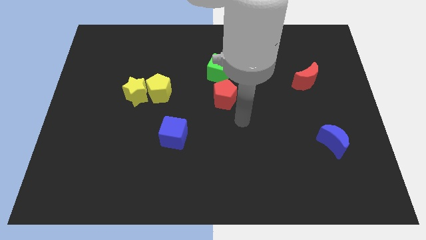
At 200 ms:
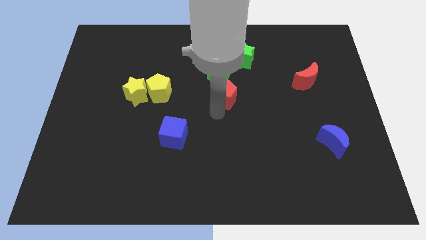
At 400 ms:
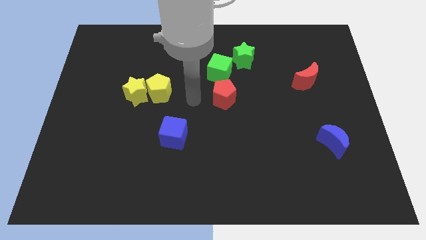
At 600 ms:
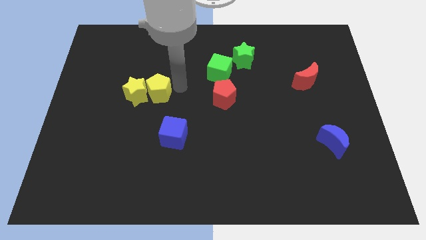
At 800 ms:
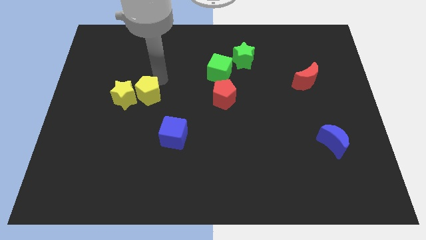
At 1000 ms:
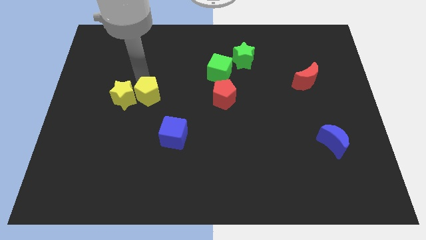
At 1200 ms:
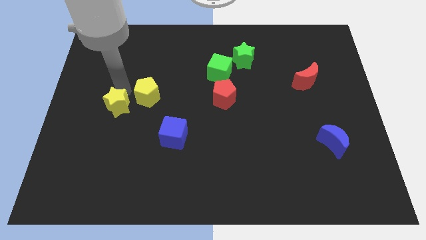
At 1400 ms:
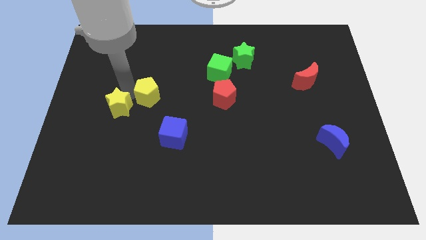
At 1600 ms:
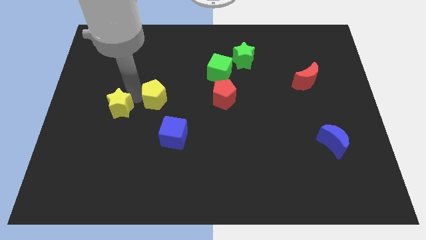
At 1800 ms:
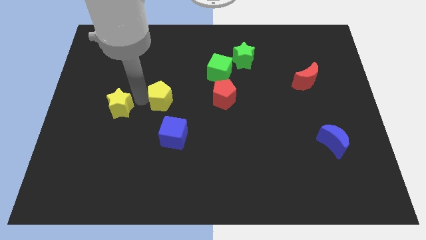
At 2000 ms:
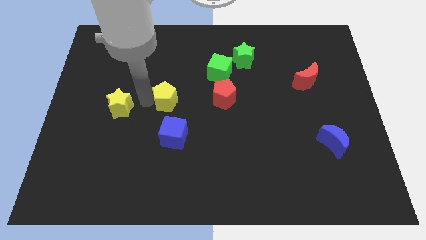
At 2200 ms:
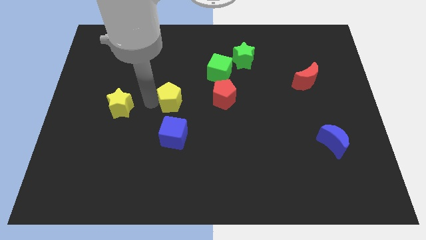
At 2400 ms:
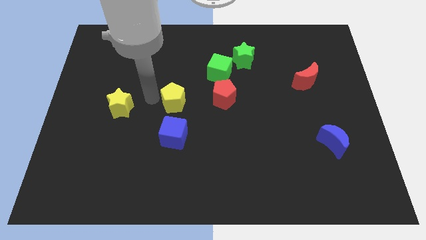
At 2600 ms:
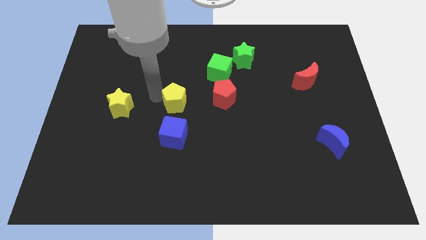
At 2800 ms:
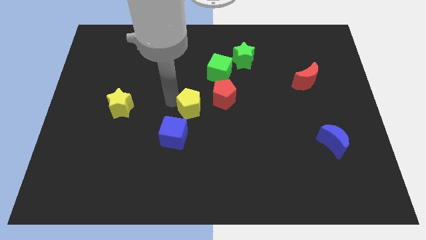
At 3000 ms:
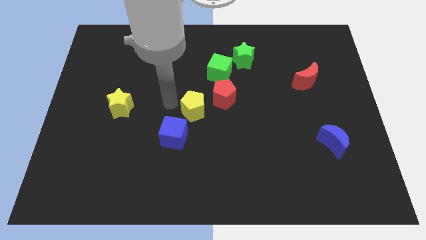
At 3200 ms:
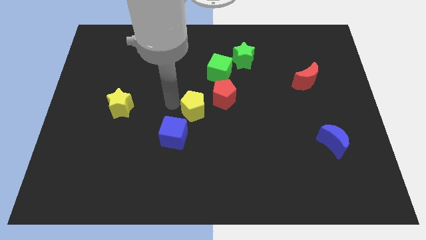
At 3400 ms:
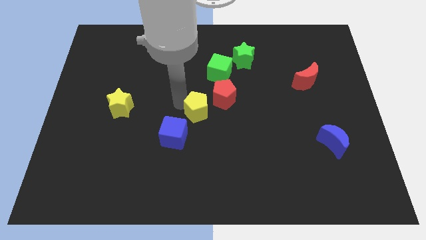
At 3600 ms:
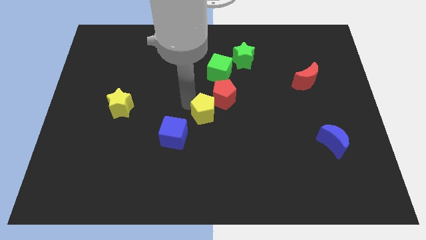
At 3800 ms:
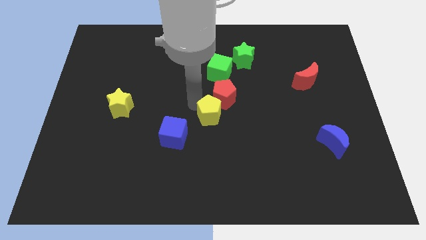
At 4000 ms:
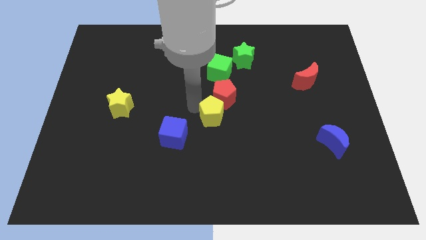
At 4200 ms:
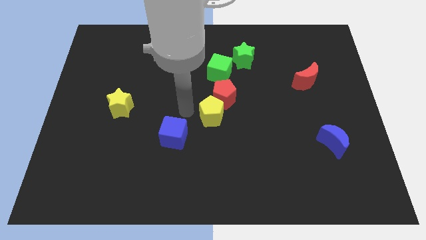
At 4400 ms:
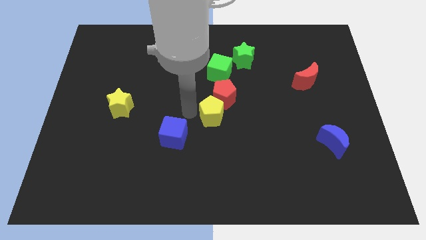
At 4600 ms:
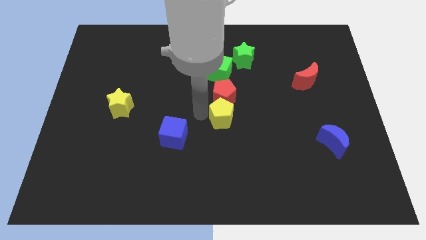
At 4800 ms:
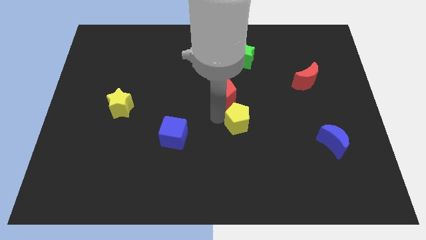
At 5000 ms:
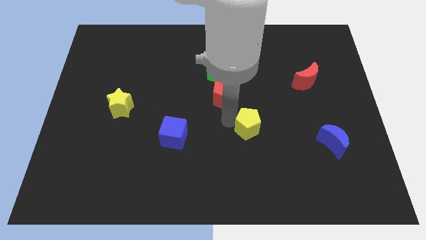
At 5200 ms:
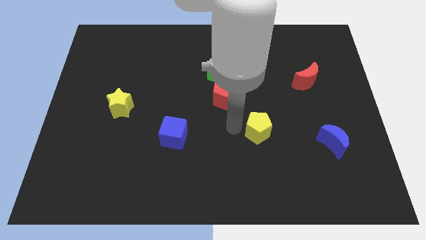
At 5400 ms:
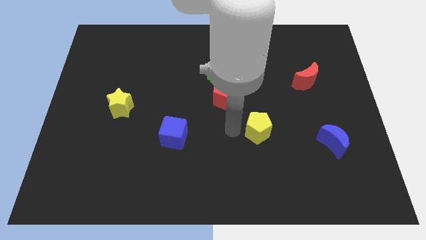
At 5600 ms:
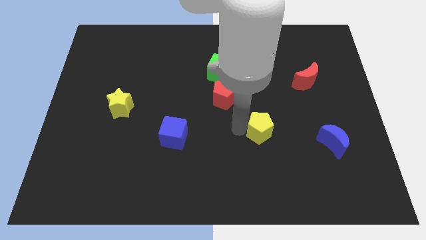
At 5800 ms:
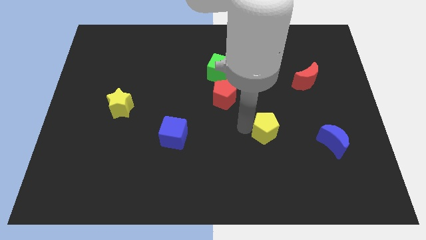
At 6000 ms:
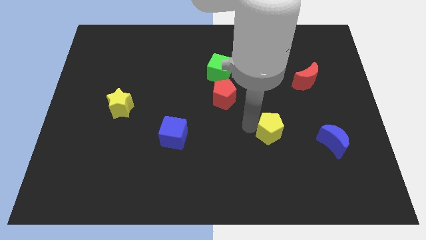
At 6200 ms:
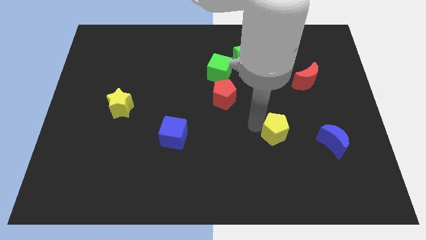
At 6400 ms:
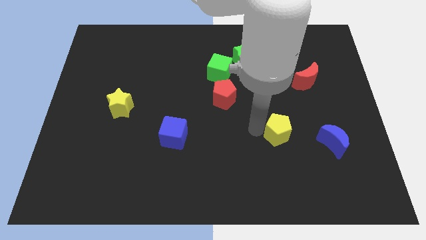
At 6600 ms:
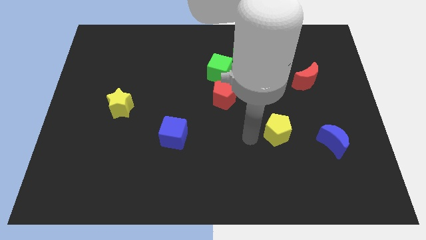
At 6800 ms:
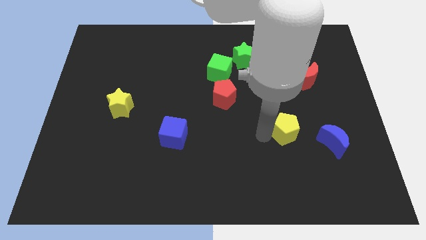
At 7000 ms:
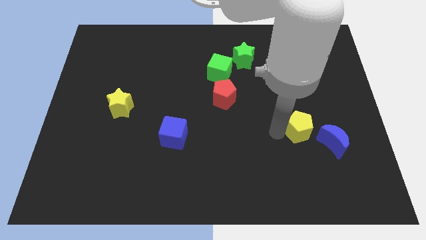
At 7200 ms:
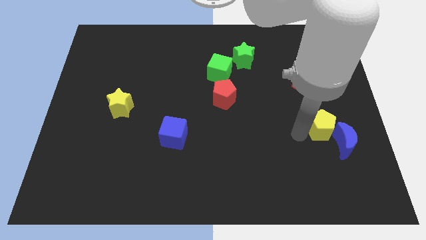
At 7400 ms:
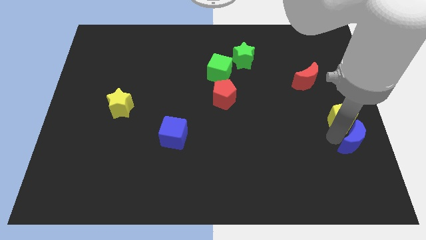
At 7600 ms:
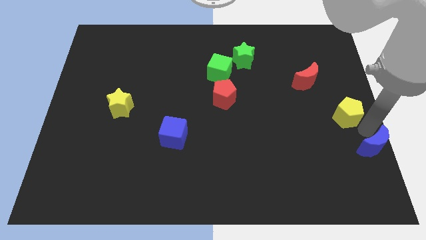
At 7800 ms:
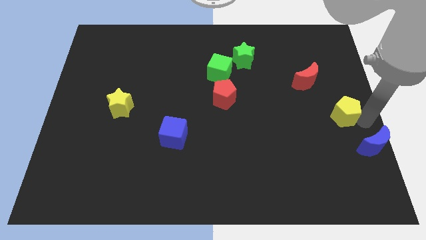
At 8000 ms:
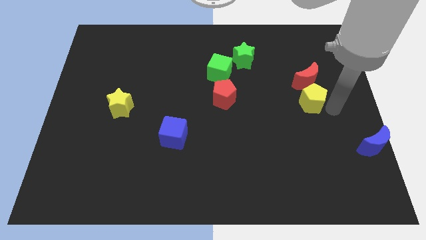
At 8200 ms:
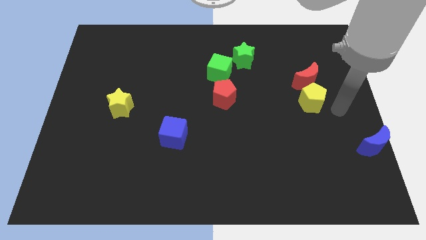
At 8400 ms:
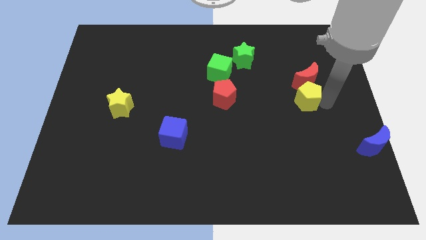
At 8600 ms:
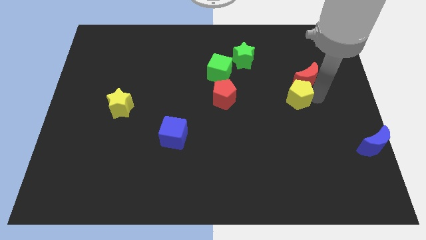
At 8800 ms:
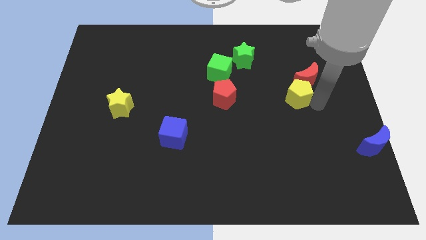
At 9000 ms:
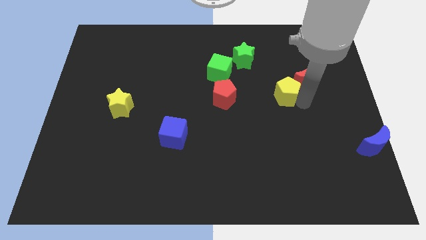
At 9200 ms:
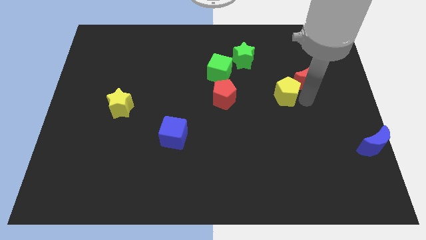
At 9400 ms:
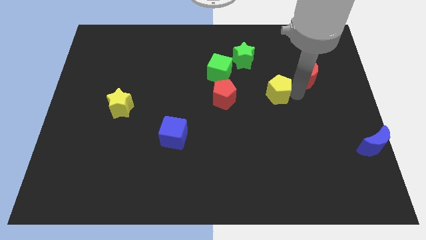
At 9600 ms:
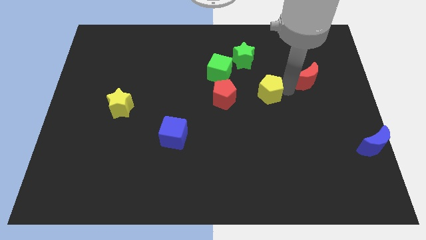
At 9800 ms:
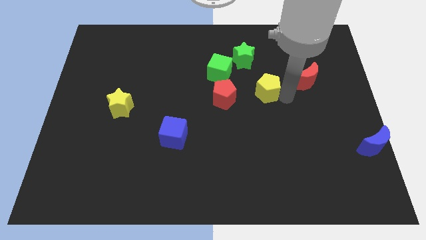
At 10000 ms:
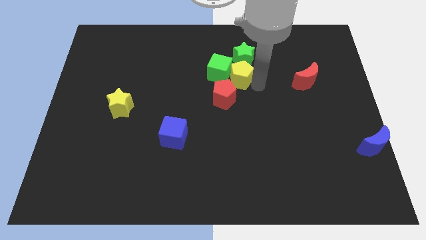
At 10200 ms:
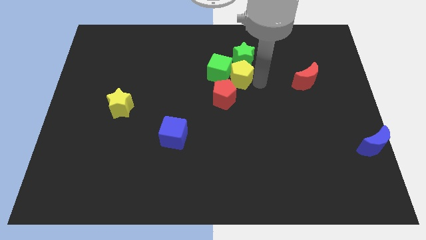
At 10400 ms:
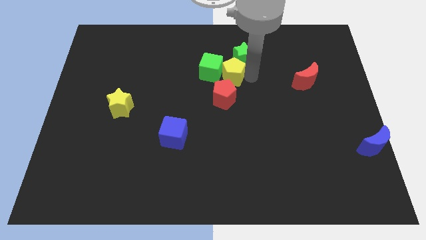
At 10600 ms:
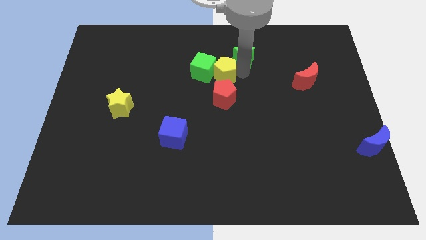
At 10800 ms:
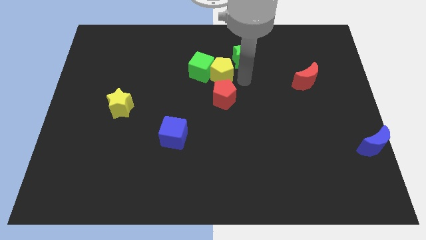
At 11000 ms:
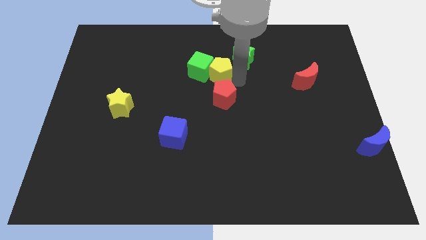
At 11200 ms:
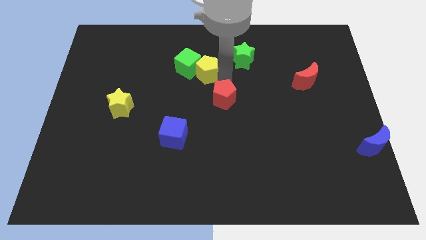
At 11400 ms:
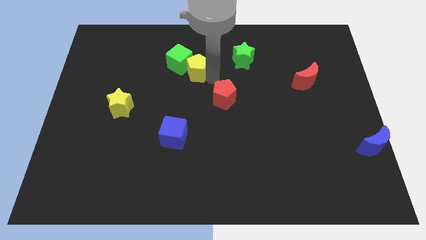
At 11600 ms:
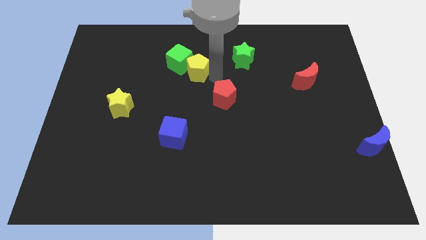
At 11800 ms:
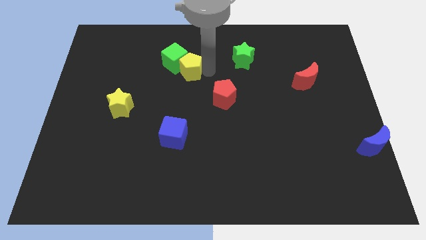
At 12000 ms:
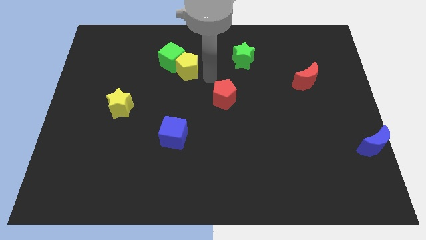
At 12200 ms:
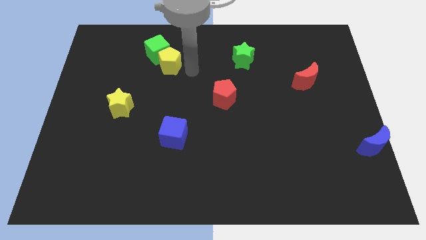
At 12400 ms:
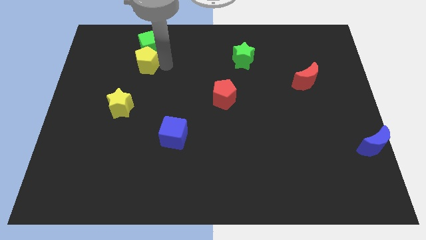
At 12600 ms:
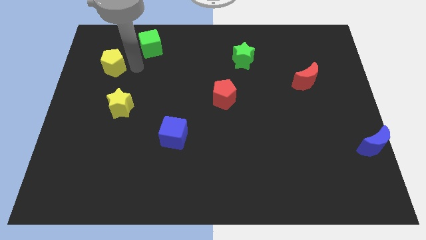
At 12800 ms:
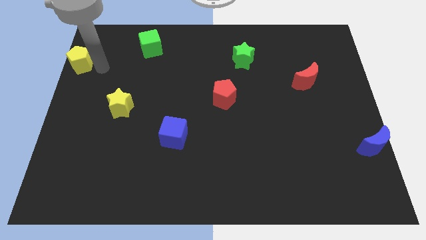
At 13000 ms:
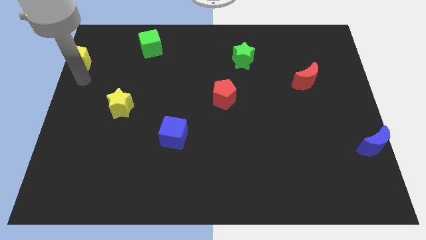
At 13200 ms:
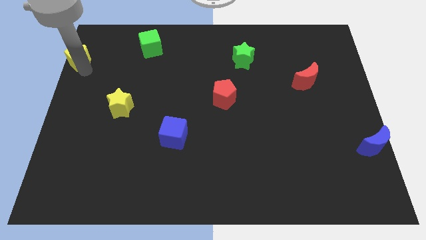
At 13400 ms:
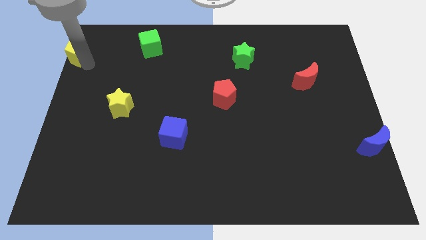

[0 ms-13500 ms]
push the yellow pentagon to the top left of the board
